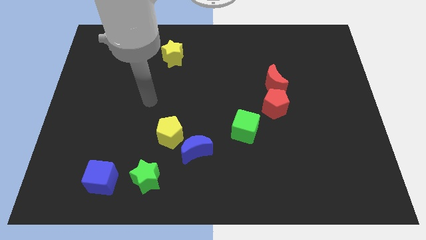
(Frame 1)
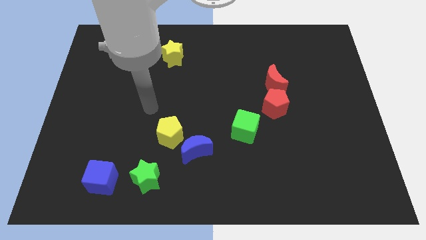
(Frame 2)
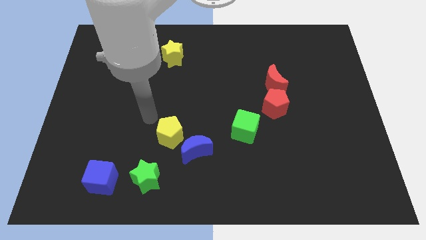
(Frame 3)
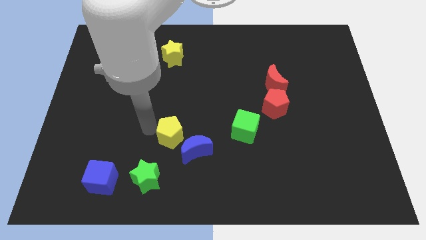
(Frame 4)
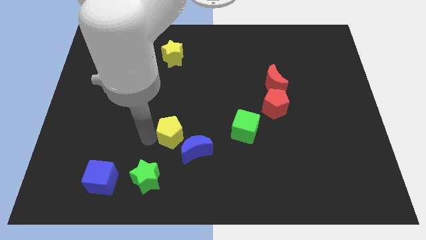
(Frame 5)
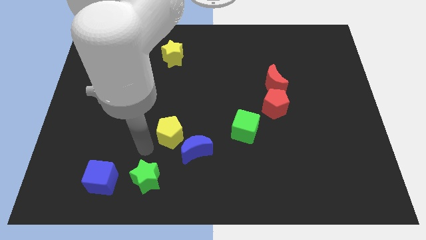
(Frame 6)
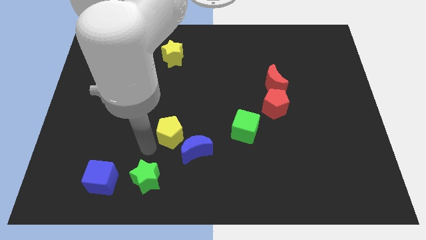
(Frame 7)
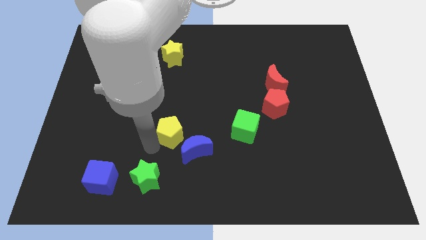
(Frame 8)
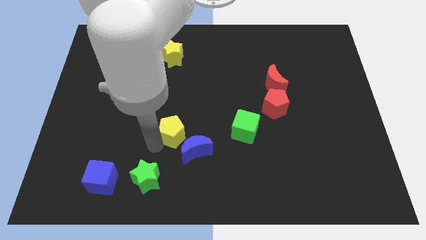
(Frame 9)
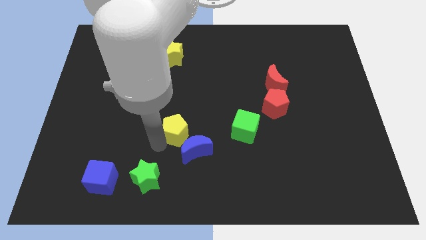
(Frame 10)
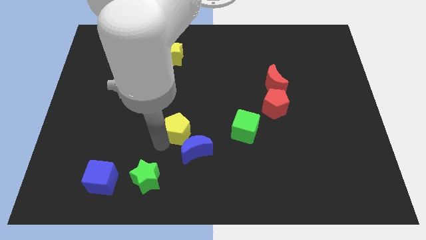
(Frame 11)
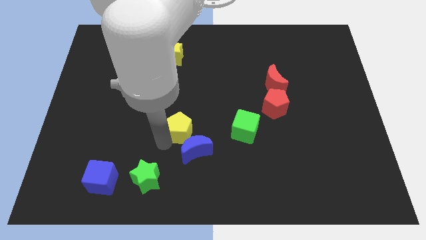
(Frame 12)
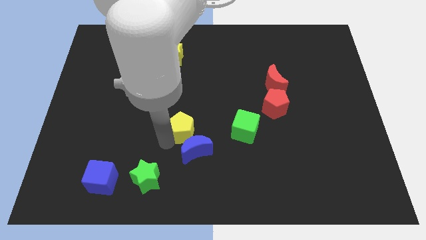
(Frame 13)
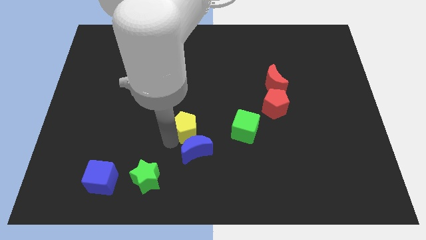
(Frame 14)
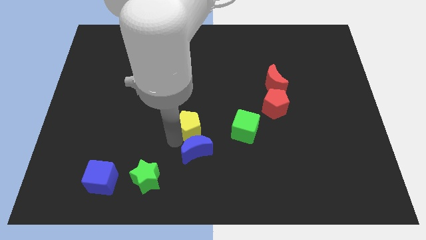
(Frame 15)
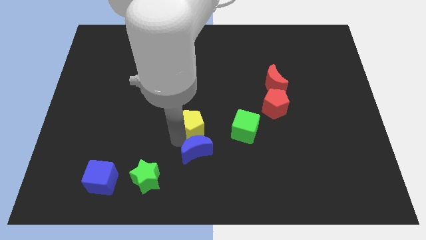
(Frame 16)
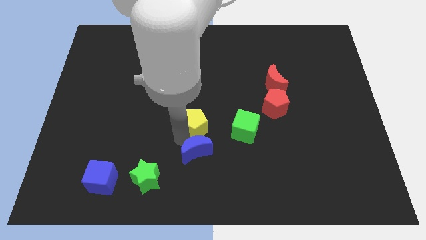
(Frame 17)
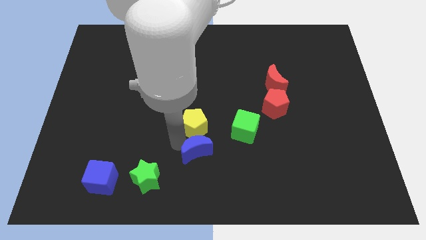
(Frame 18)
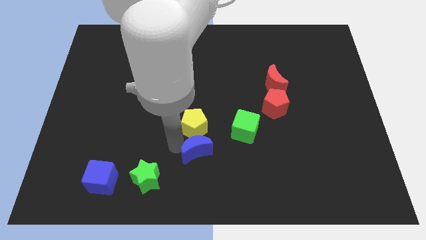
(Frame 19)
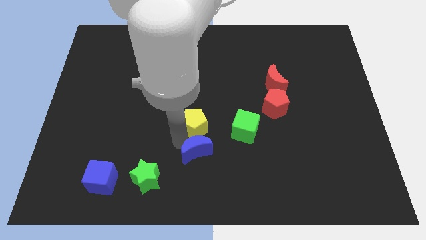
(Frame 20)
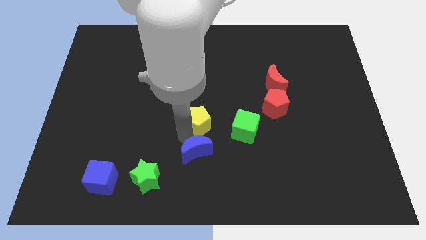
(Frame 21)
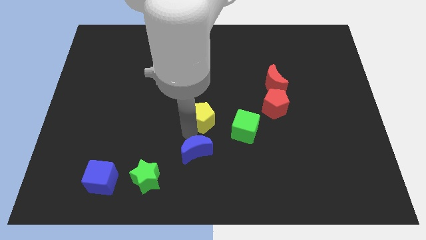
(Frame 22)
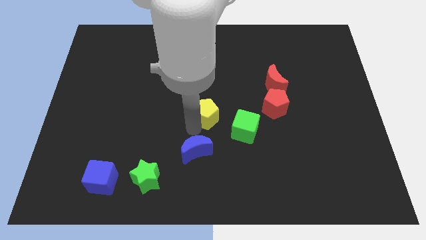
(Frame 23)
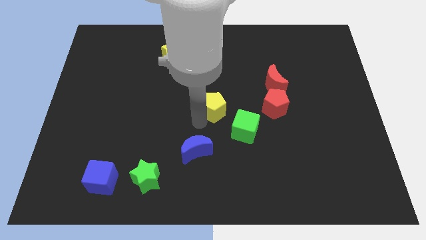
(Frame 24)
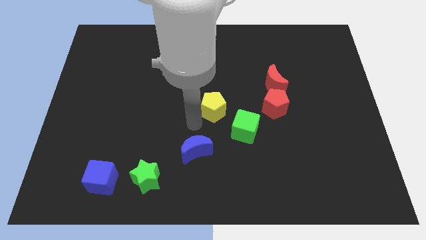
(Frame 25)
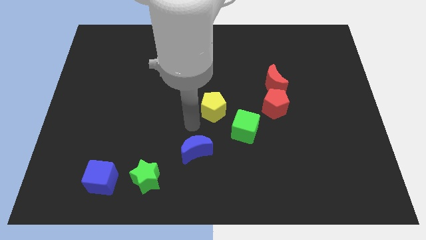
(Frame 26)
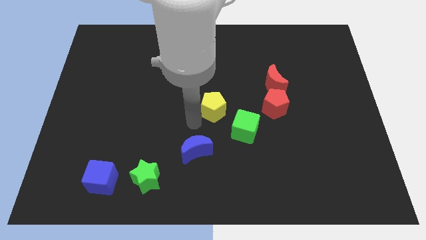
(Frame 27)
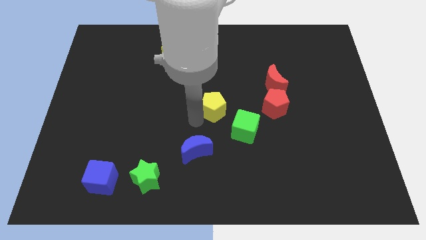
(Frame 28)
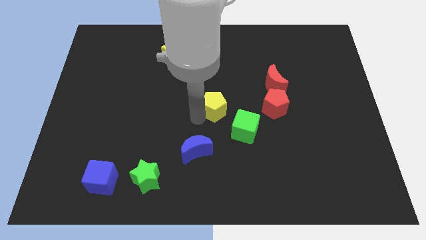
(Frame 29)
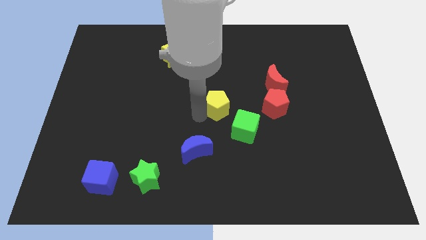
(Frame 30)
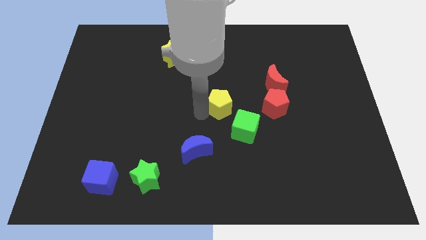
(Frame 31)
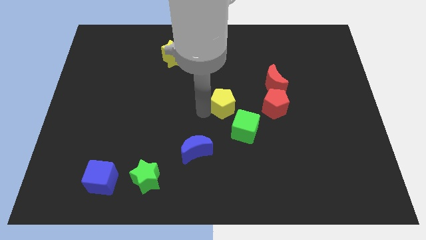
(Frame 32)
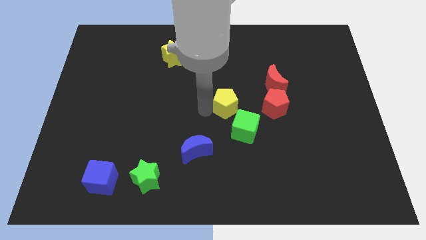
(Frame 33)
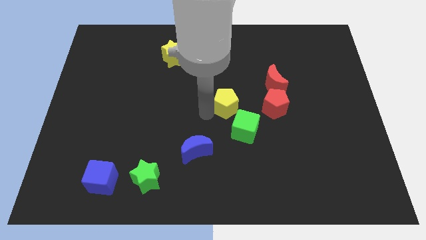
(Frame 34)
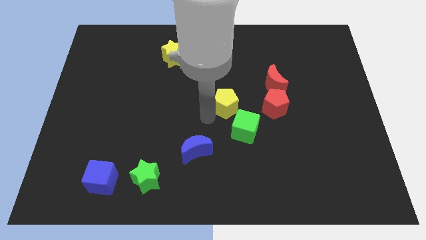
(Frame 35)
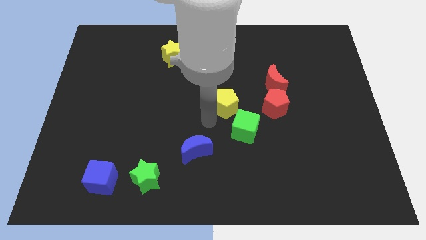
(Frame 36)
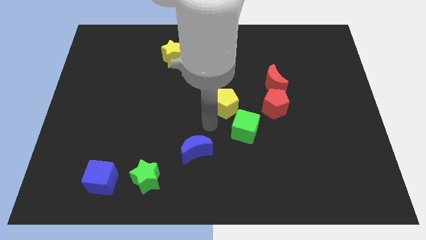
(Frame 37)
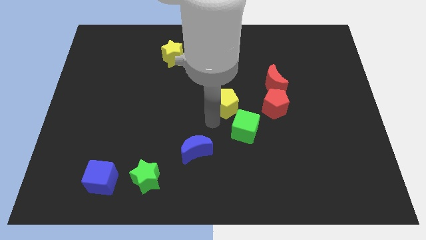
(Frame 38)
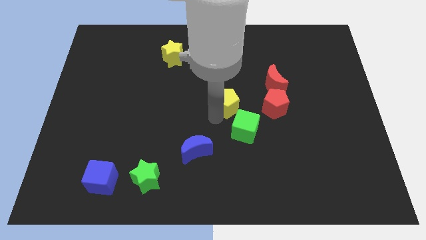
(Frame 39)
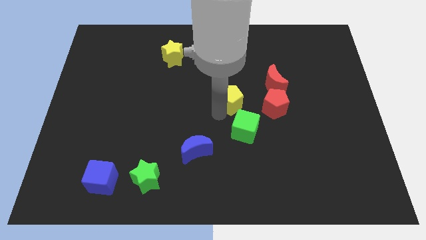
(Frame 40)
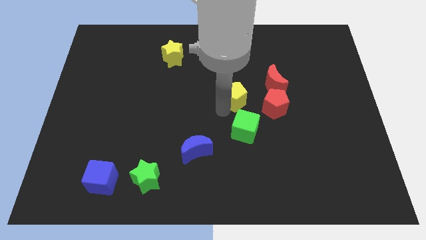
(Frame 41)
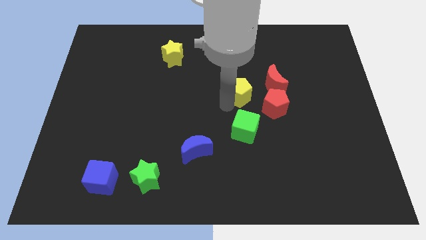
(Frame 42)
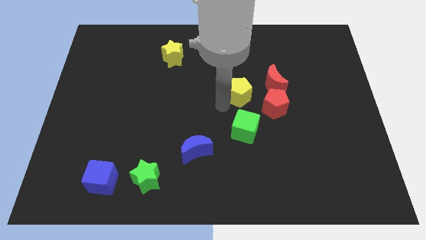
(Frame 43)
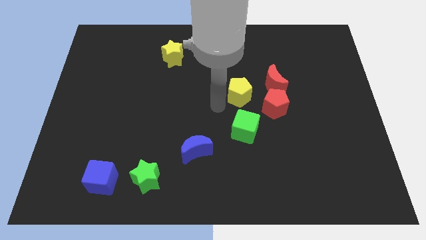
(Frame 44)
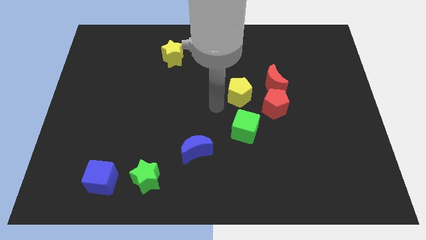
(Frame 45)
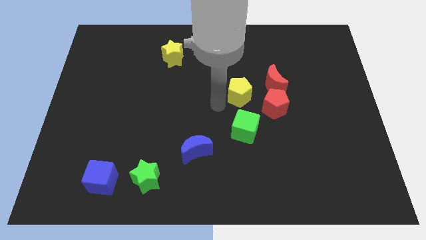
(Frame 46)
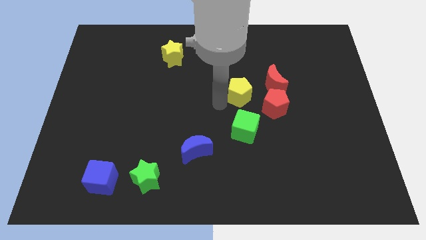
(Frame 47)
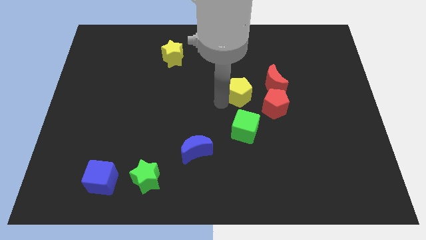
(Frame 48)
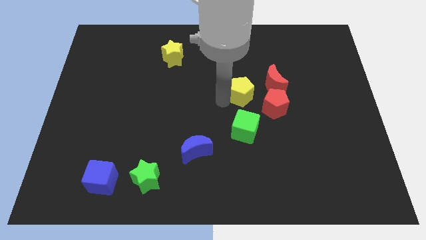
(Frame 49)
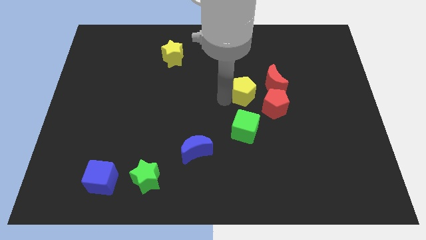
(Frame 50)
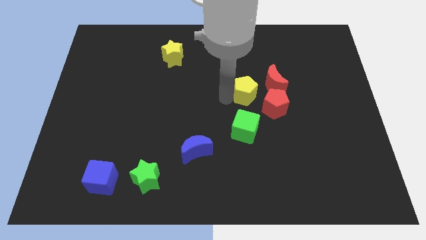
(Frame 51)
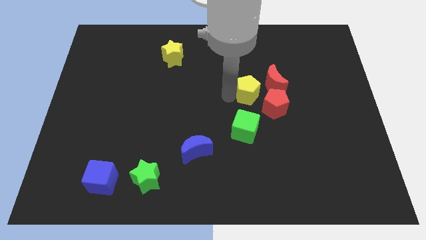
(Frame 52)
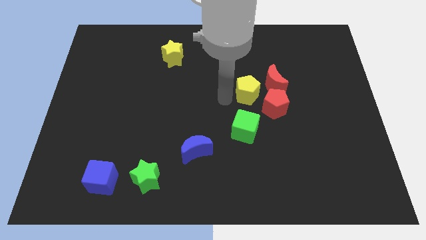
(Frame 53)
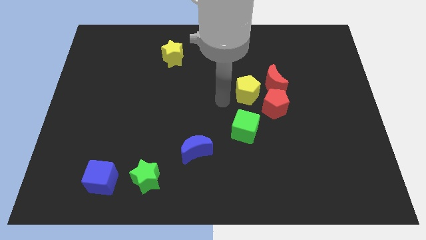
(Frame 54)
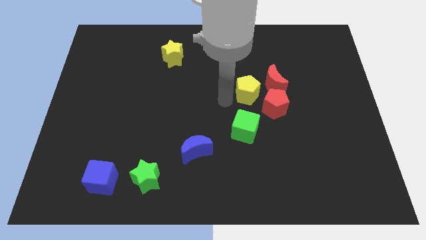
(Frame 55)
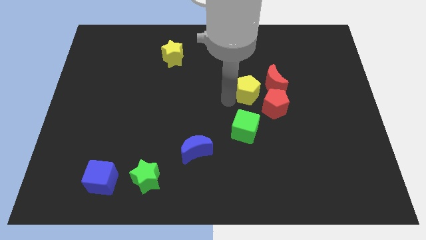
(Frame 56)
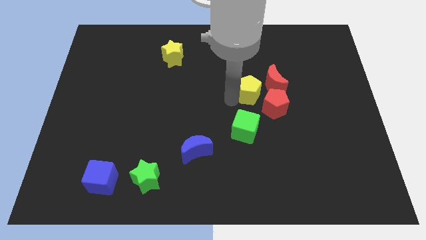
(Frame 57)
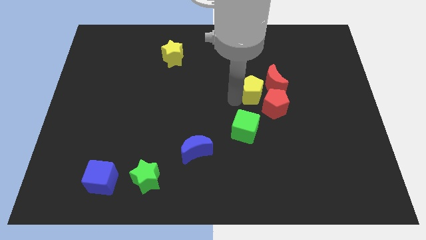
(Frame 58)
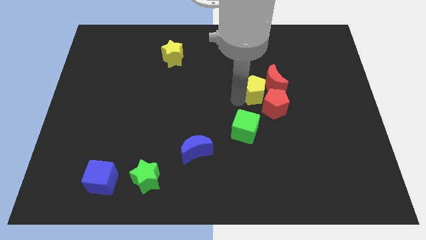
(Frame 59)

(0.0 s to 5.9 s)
put the yellow pentagon to the red moon

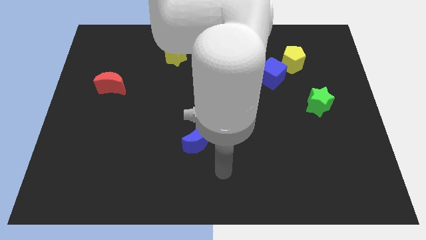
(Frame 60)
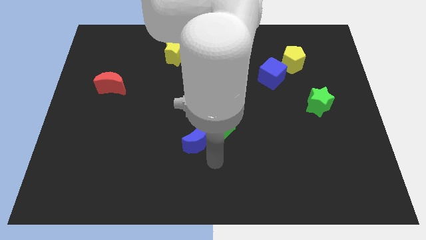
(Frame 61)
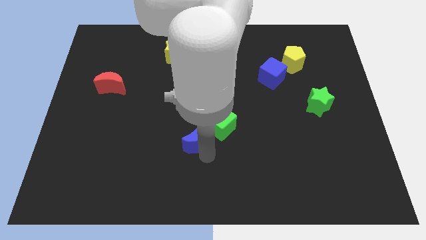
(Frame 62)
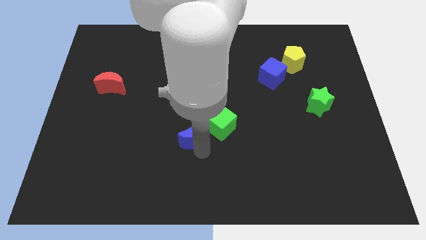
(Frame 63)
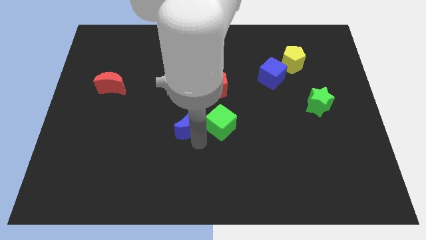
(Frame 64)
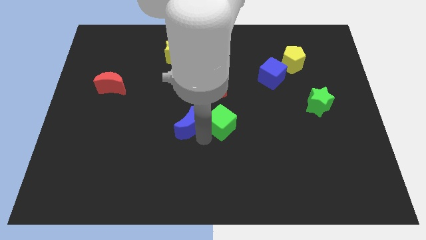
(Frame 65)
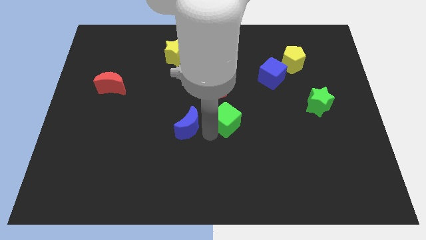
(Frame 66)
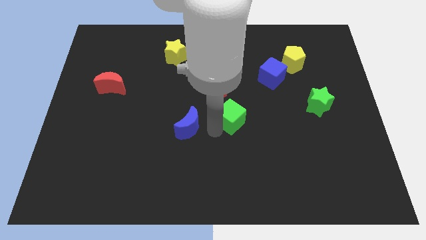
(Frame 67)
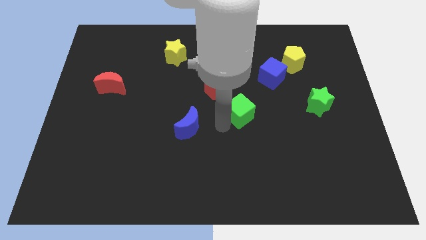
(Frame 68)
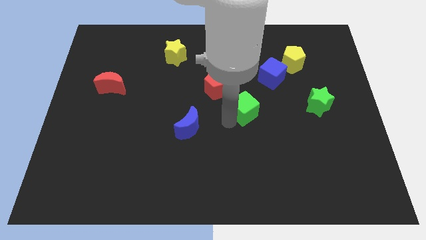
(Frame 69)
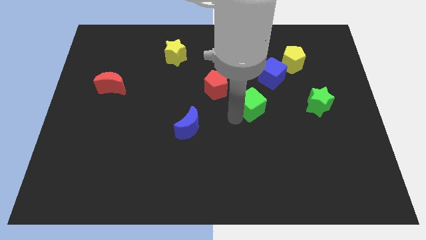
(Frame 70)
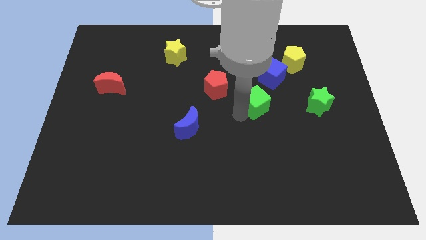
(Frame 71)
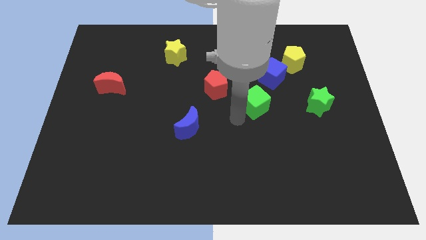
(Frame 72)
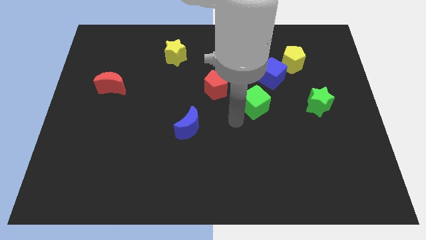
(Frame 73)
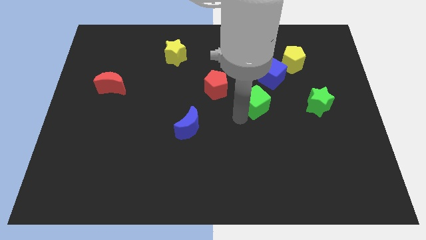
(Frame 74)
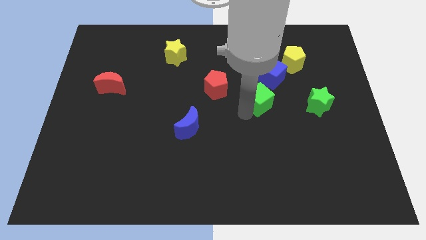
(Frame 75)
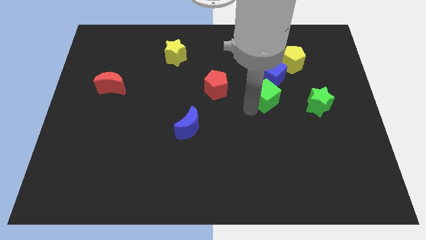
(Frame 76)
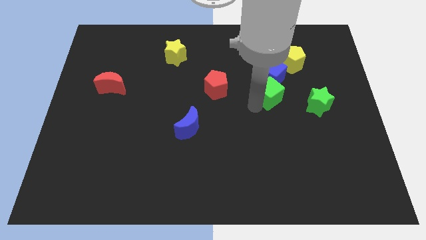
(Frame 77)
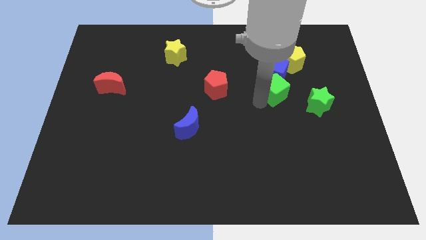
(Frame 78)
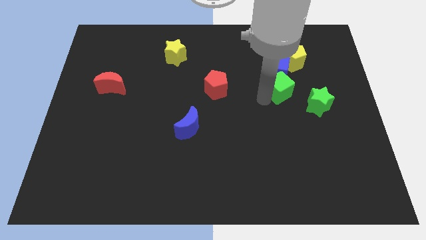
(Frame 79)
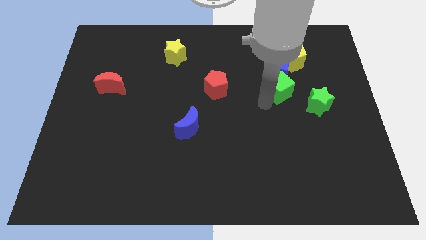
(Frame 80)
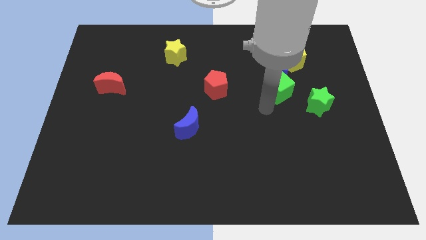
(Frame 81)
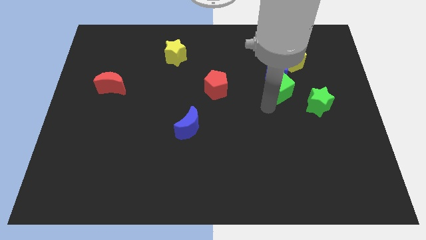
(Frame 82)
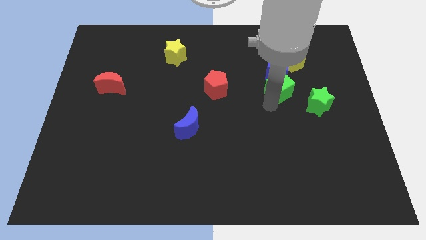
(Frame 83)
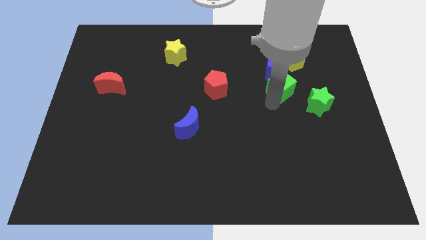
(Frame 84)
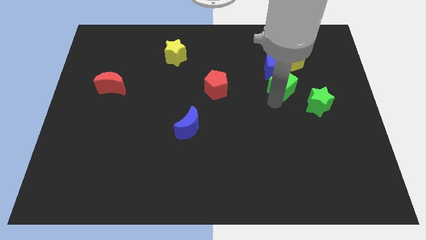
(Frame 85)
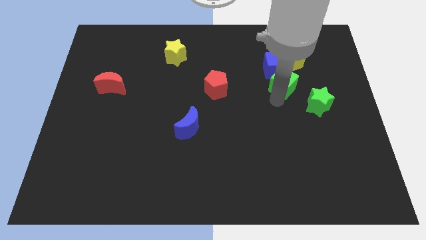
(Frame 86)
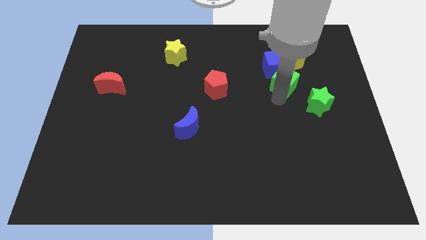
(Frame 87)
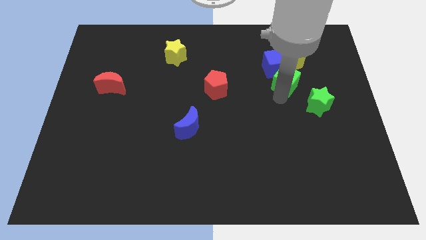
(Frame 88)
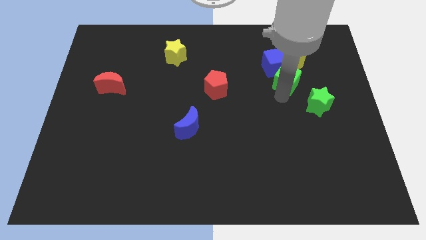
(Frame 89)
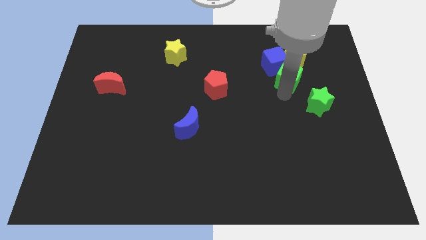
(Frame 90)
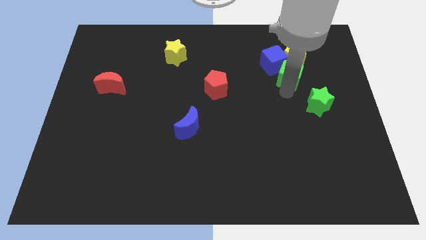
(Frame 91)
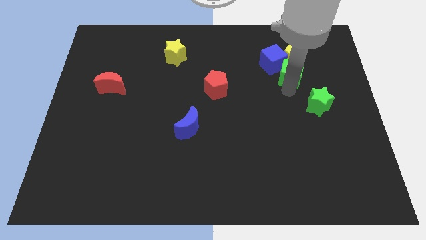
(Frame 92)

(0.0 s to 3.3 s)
slide the green cube towards the yellow pentagon
